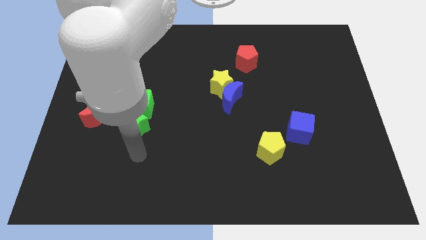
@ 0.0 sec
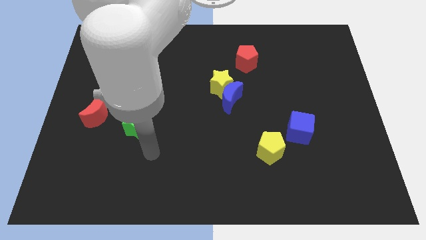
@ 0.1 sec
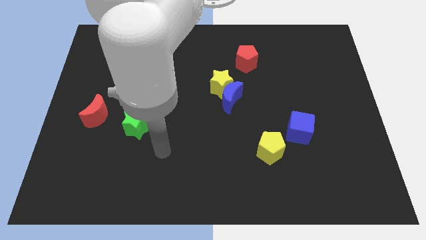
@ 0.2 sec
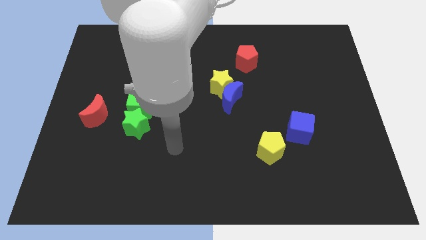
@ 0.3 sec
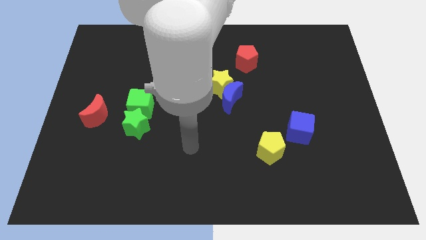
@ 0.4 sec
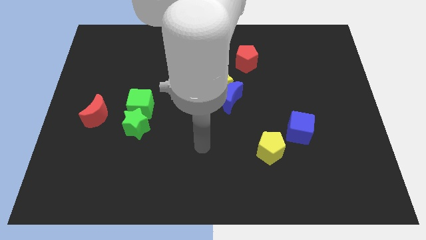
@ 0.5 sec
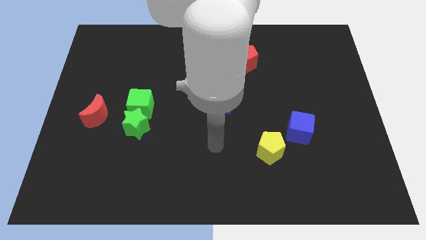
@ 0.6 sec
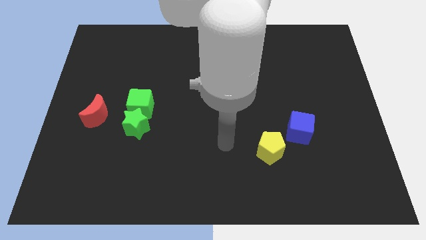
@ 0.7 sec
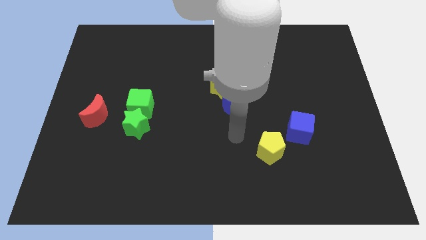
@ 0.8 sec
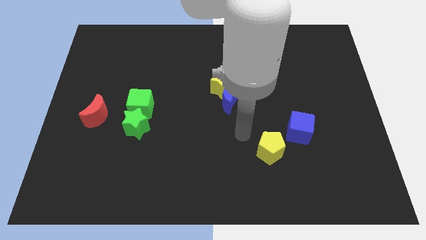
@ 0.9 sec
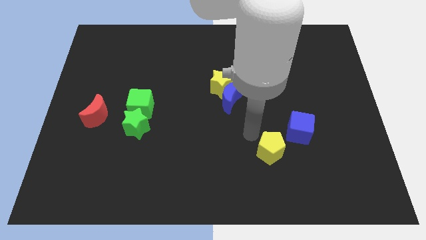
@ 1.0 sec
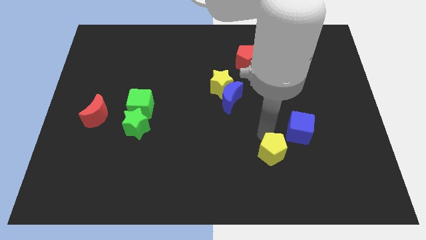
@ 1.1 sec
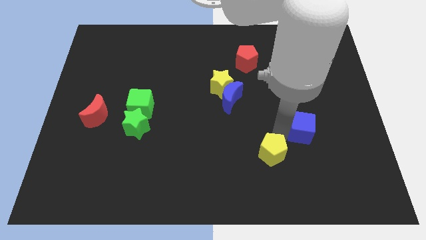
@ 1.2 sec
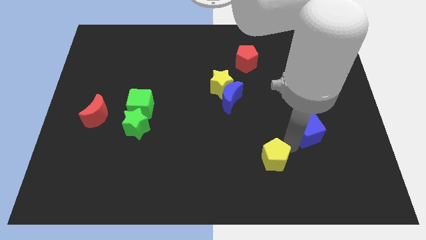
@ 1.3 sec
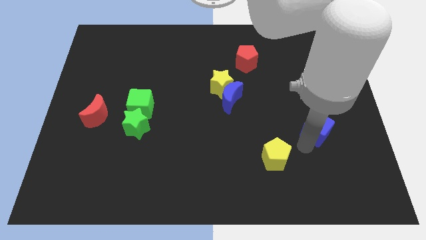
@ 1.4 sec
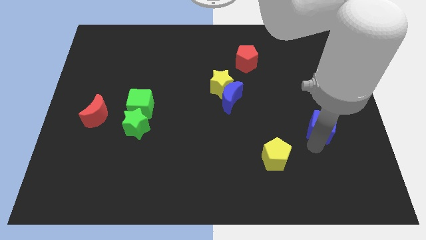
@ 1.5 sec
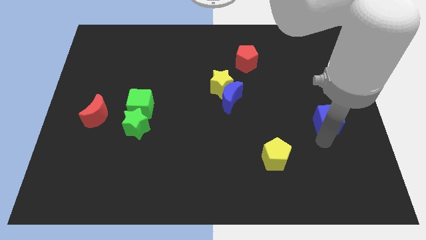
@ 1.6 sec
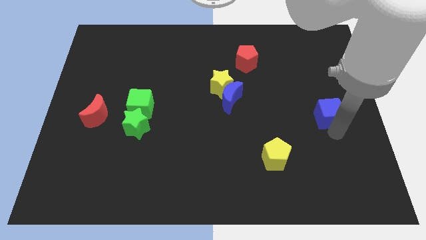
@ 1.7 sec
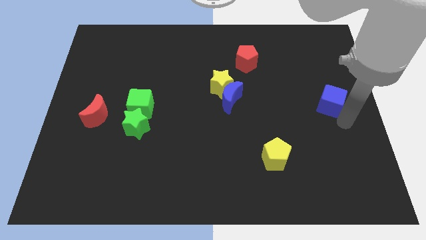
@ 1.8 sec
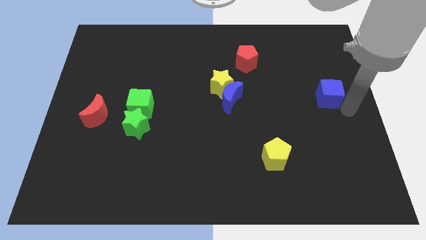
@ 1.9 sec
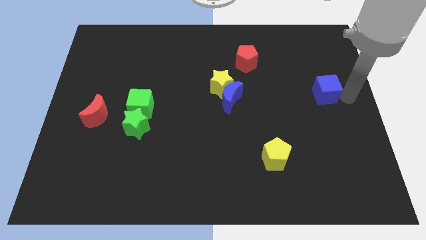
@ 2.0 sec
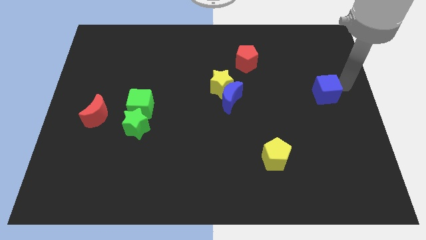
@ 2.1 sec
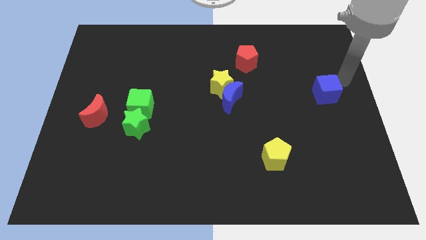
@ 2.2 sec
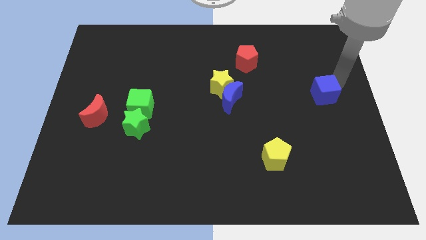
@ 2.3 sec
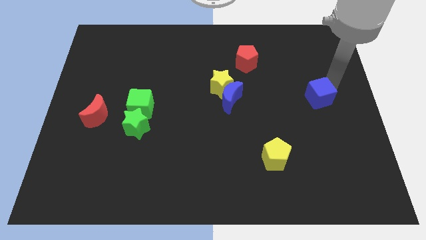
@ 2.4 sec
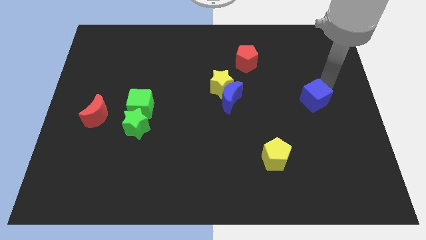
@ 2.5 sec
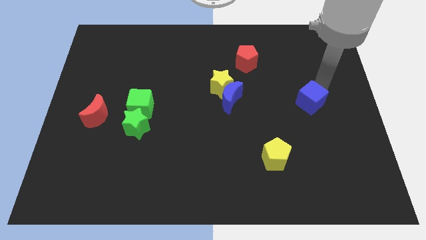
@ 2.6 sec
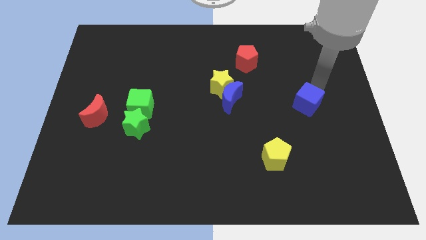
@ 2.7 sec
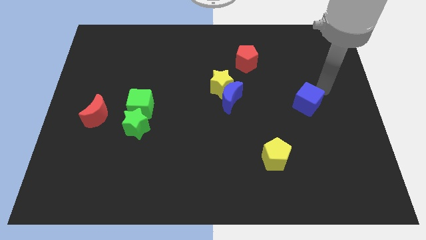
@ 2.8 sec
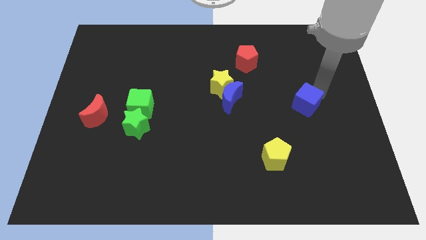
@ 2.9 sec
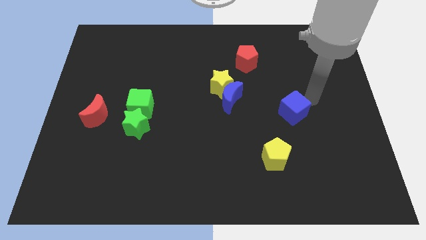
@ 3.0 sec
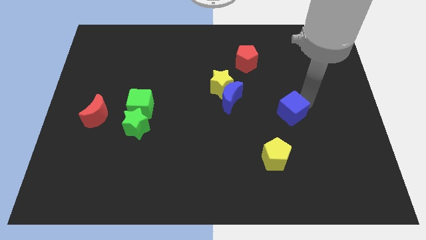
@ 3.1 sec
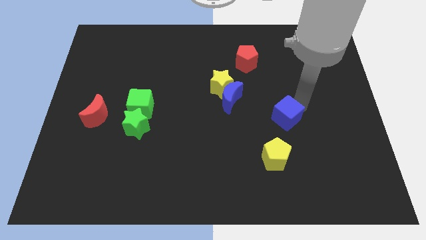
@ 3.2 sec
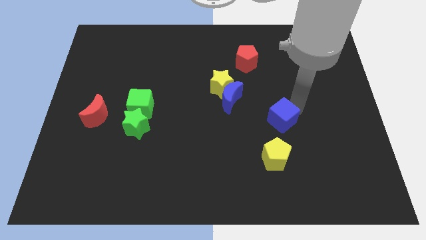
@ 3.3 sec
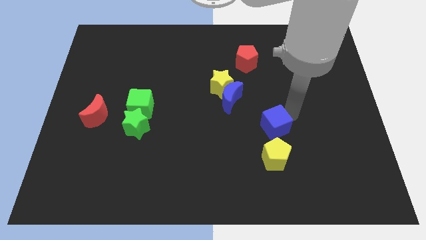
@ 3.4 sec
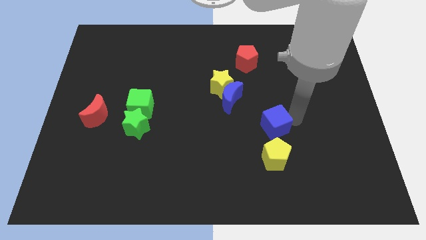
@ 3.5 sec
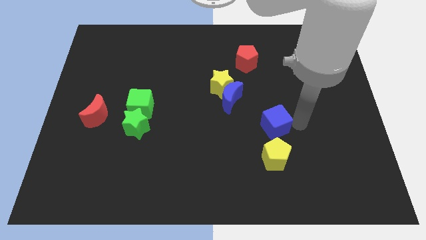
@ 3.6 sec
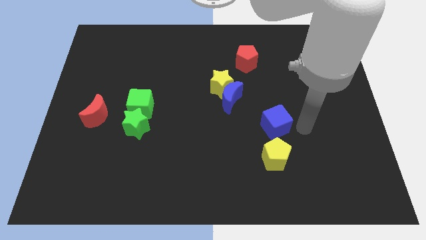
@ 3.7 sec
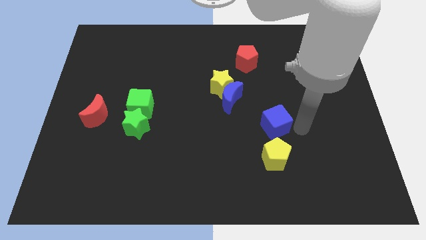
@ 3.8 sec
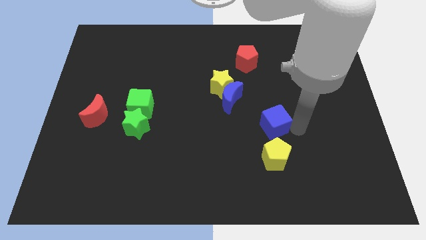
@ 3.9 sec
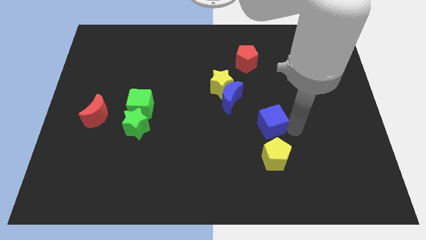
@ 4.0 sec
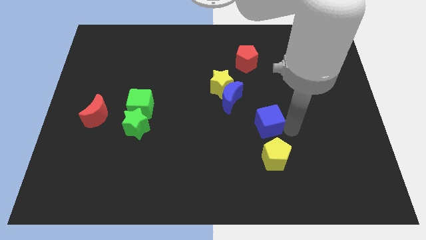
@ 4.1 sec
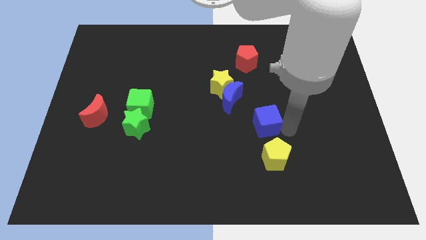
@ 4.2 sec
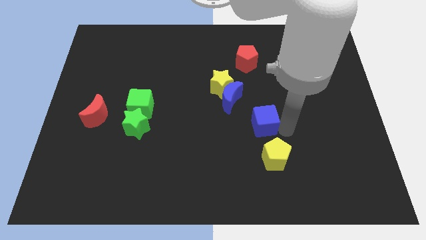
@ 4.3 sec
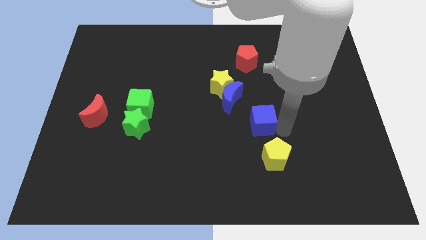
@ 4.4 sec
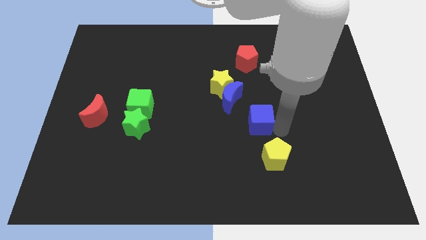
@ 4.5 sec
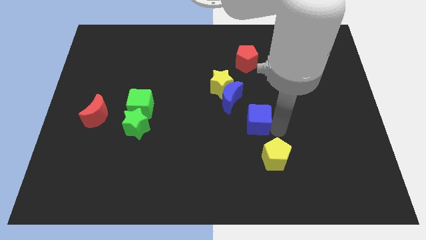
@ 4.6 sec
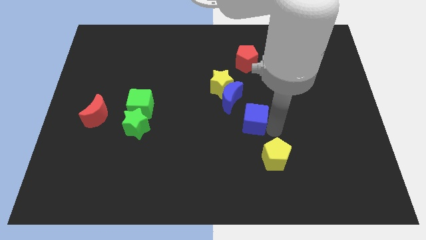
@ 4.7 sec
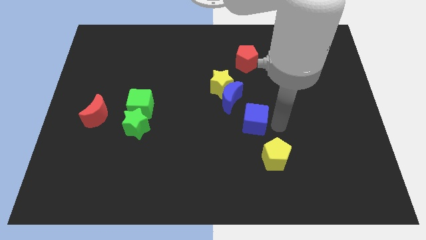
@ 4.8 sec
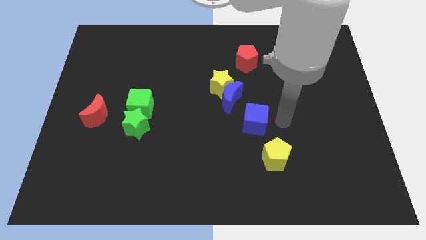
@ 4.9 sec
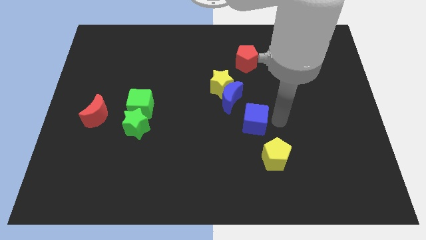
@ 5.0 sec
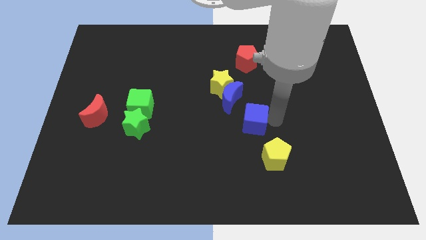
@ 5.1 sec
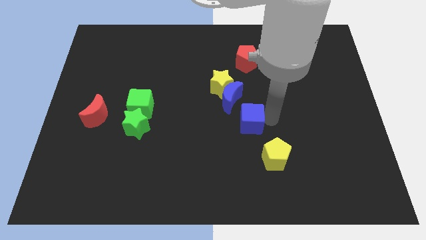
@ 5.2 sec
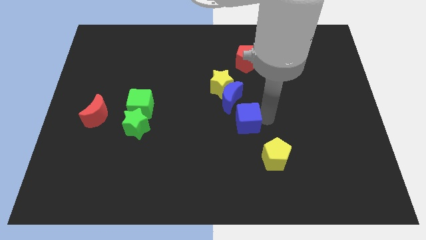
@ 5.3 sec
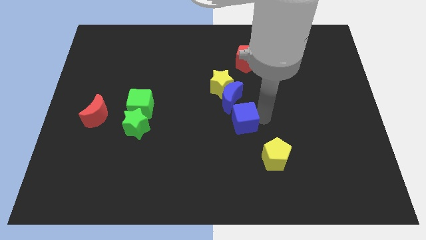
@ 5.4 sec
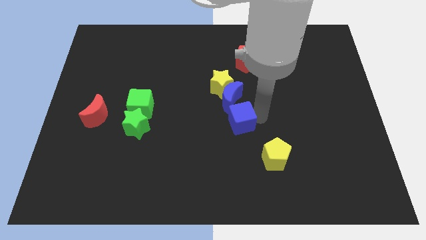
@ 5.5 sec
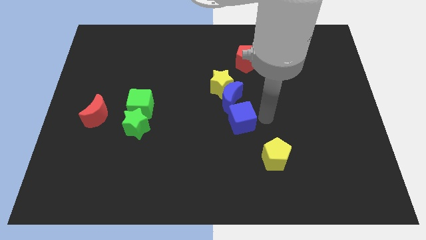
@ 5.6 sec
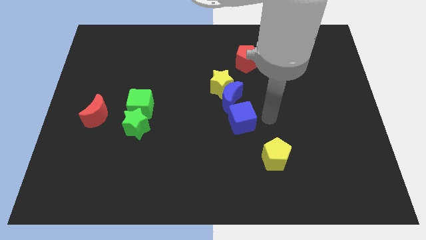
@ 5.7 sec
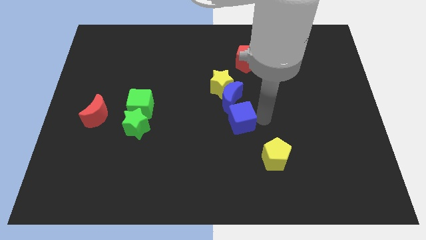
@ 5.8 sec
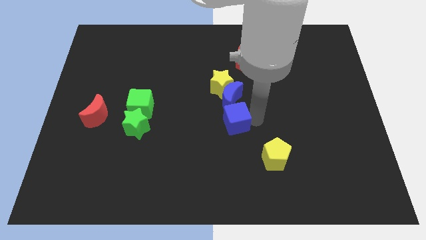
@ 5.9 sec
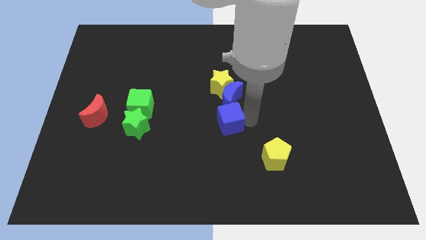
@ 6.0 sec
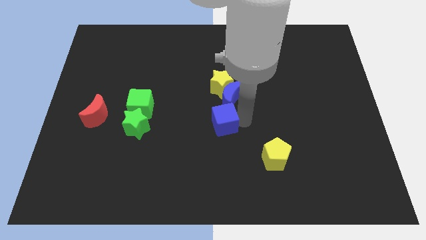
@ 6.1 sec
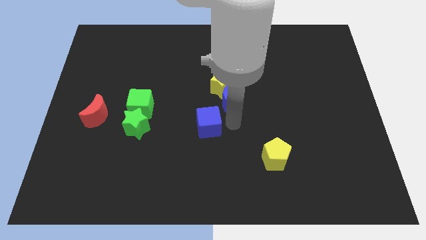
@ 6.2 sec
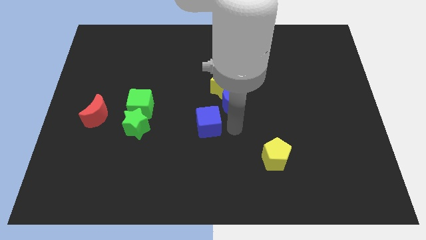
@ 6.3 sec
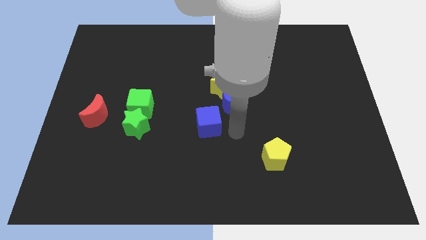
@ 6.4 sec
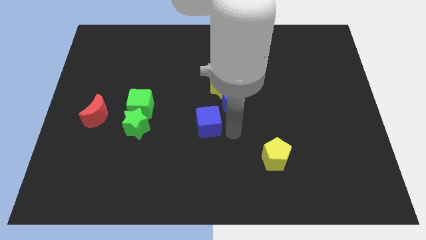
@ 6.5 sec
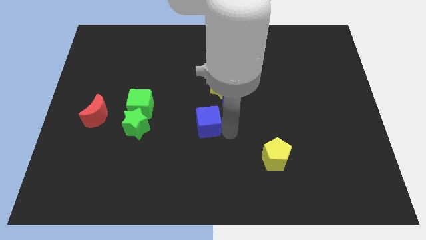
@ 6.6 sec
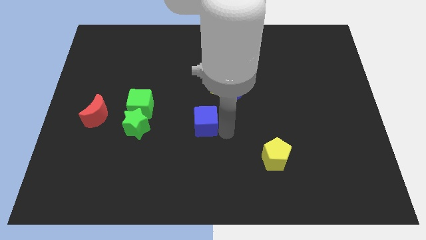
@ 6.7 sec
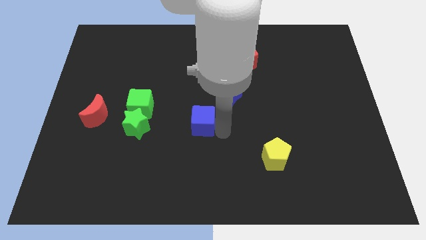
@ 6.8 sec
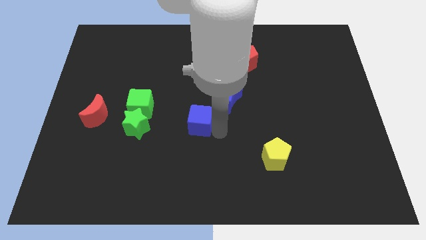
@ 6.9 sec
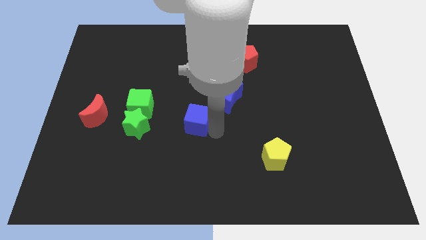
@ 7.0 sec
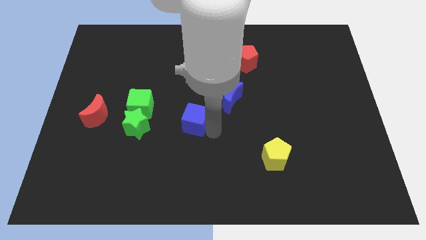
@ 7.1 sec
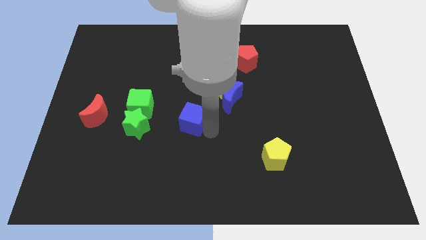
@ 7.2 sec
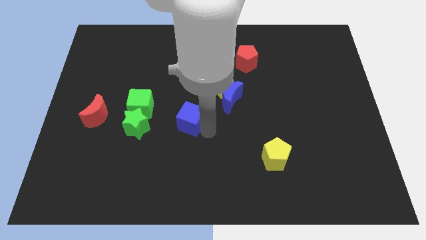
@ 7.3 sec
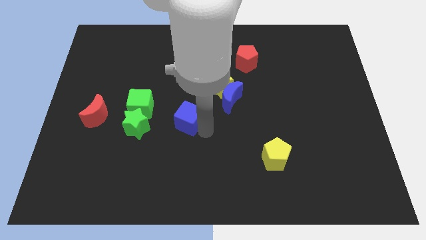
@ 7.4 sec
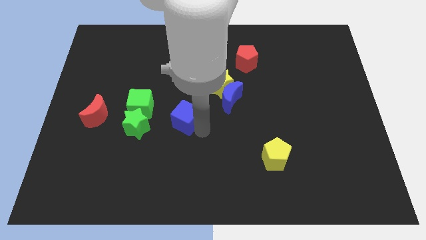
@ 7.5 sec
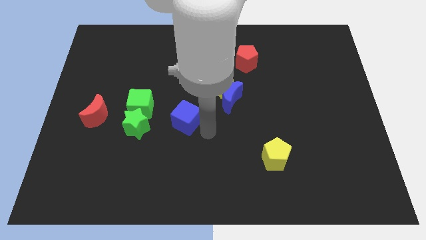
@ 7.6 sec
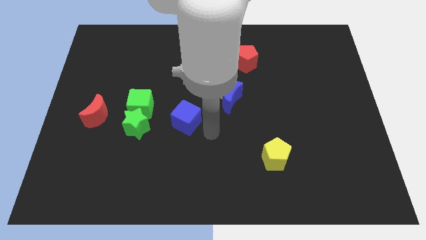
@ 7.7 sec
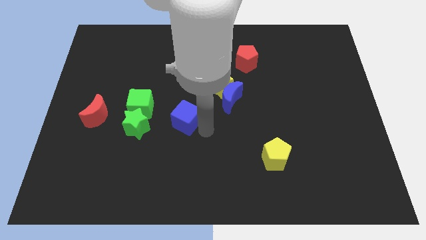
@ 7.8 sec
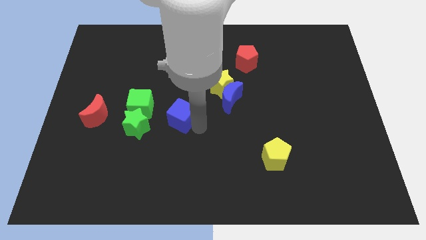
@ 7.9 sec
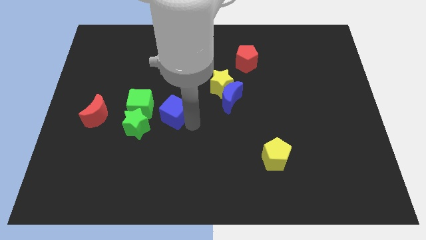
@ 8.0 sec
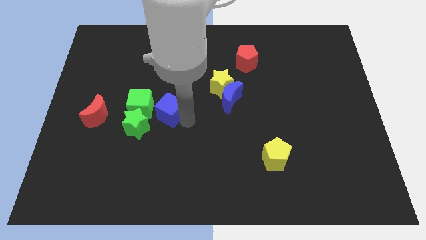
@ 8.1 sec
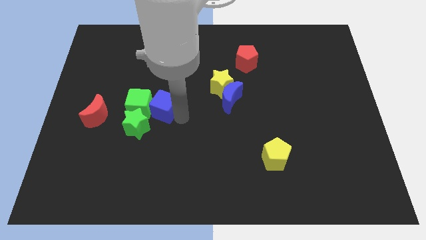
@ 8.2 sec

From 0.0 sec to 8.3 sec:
move the blue cube to the green cube
